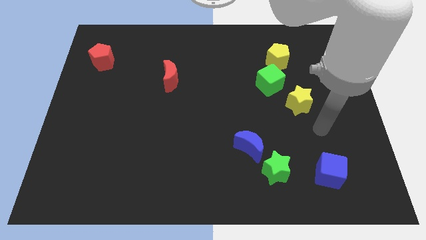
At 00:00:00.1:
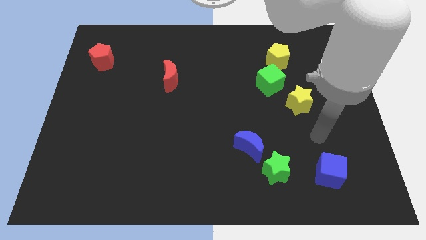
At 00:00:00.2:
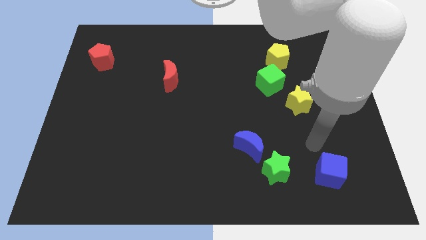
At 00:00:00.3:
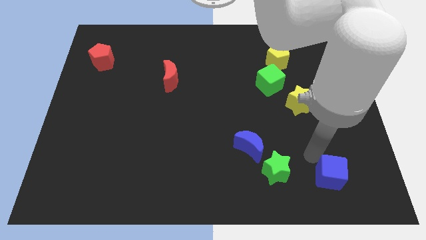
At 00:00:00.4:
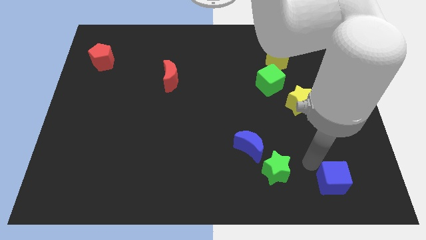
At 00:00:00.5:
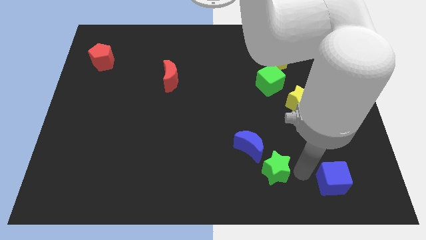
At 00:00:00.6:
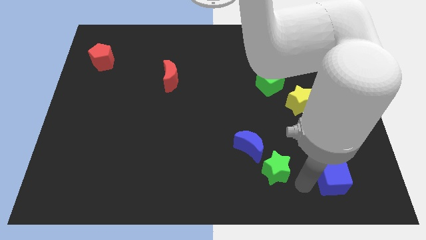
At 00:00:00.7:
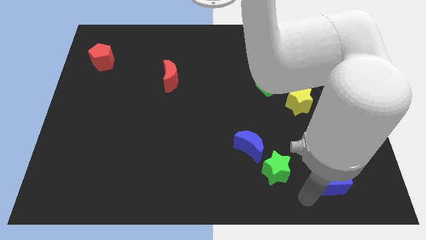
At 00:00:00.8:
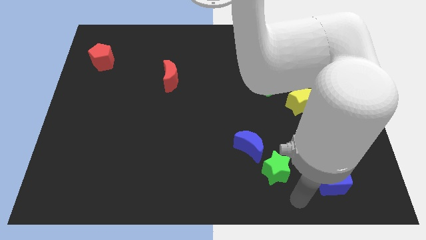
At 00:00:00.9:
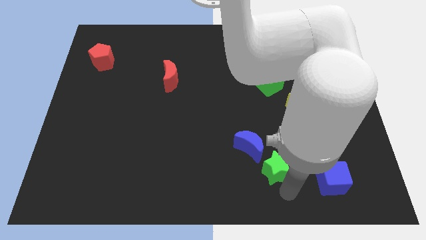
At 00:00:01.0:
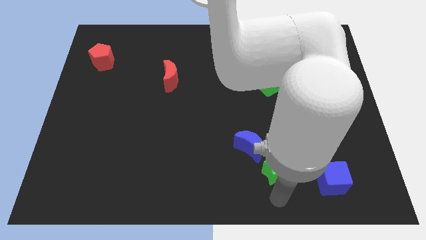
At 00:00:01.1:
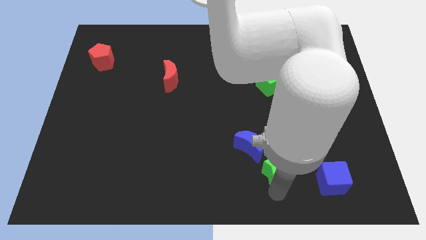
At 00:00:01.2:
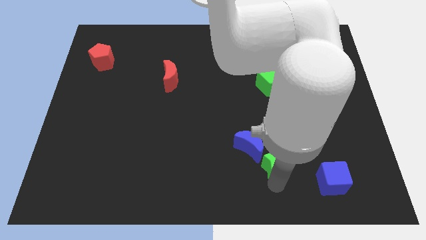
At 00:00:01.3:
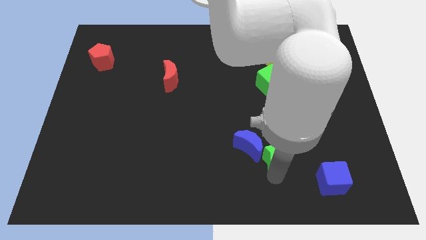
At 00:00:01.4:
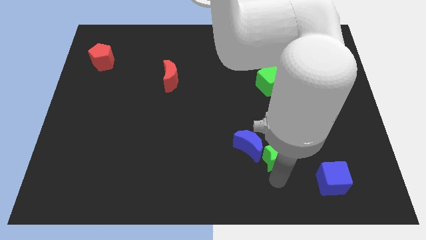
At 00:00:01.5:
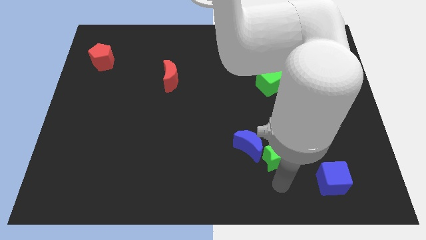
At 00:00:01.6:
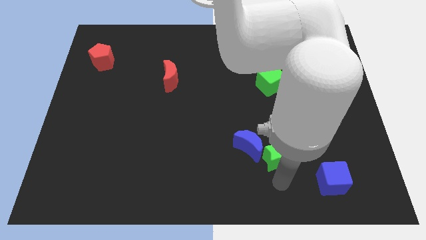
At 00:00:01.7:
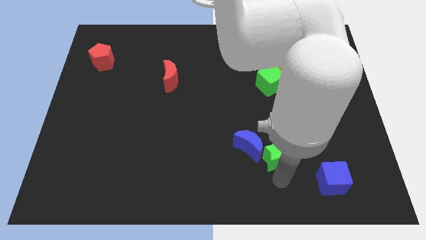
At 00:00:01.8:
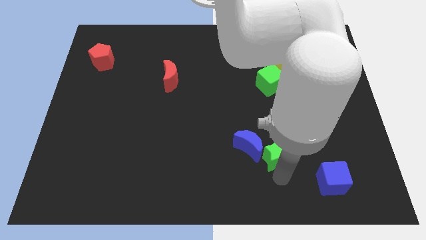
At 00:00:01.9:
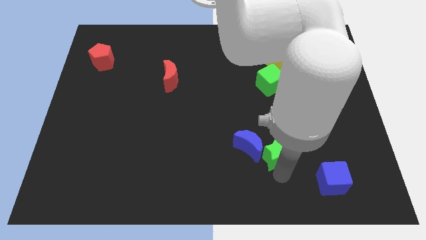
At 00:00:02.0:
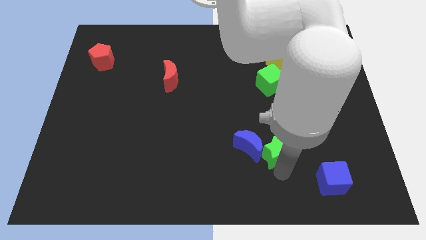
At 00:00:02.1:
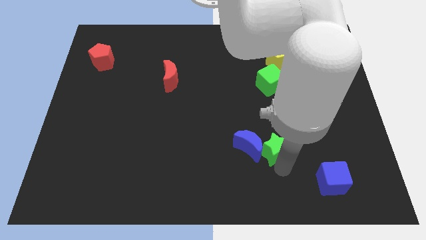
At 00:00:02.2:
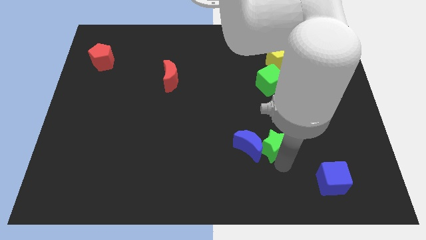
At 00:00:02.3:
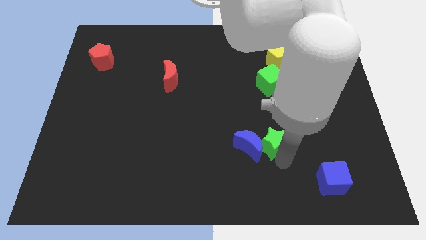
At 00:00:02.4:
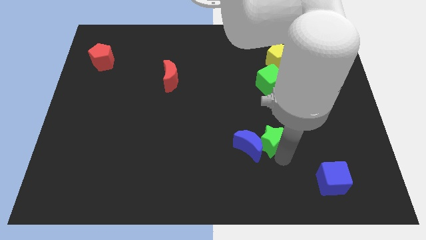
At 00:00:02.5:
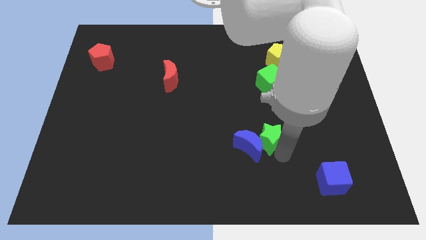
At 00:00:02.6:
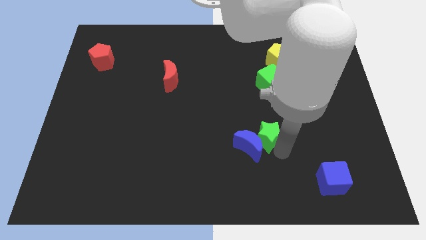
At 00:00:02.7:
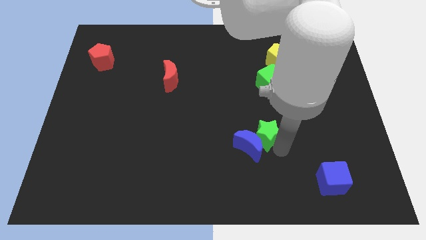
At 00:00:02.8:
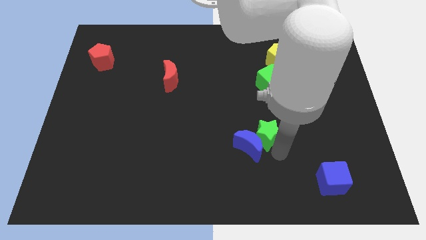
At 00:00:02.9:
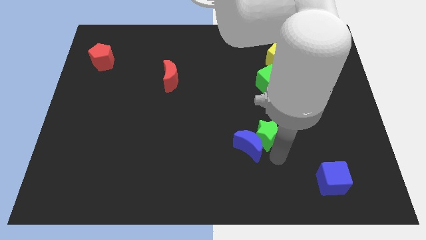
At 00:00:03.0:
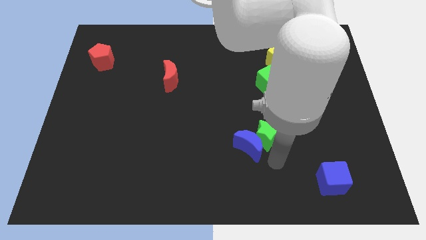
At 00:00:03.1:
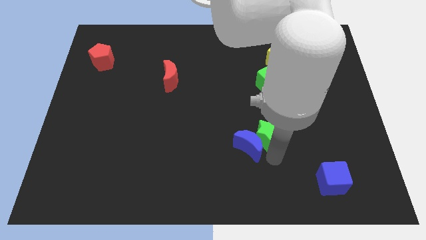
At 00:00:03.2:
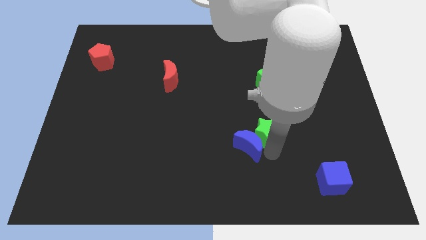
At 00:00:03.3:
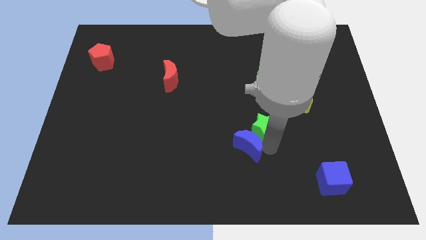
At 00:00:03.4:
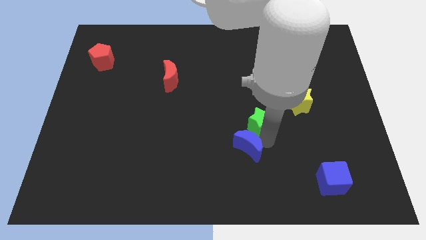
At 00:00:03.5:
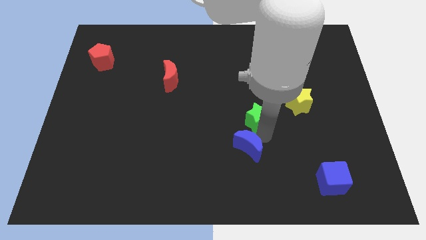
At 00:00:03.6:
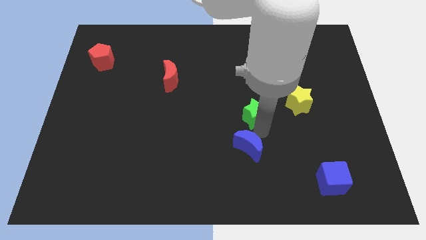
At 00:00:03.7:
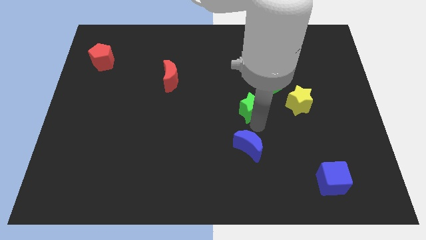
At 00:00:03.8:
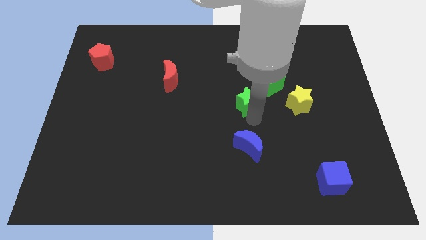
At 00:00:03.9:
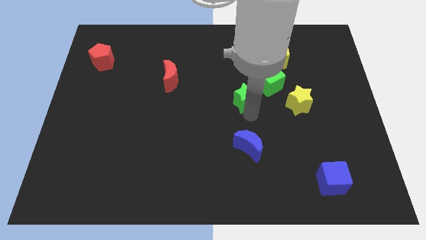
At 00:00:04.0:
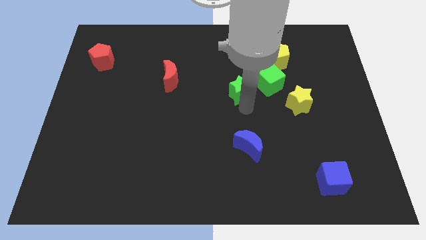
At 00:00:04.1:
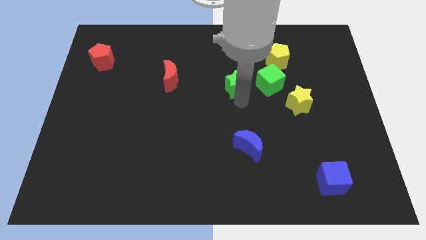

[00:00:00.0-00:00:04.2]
slide the green star upwards

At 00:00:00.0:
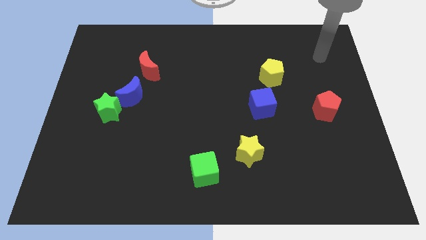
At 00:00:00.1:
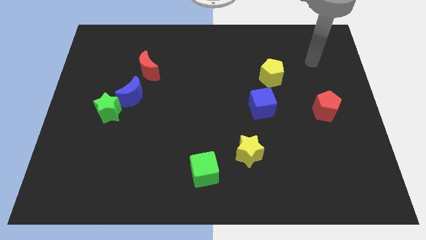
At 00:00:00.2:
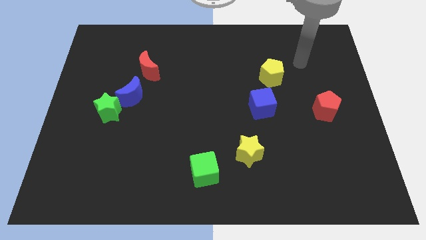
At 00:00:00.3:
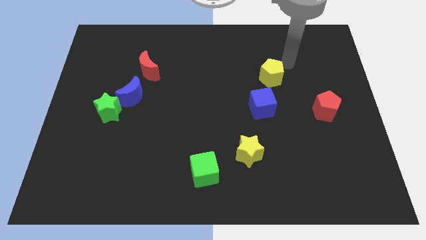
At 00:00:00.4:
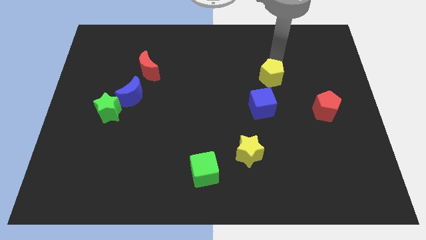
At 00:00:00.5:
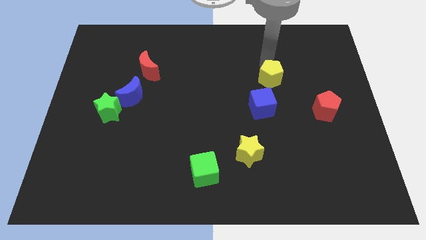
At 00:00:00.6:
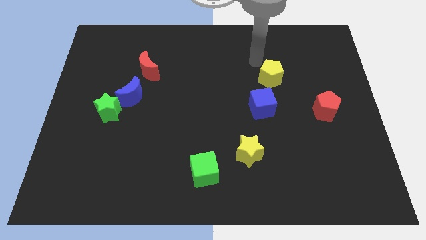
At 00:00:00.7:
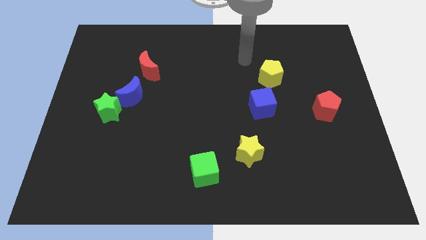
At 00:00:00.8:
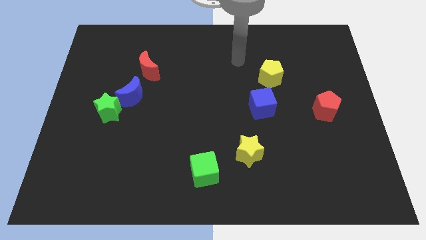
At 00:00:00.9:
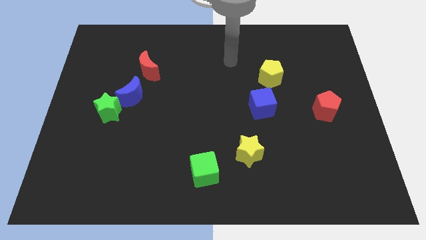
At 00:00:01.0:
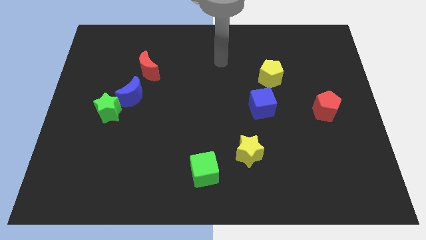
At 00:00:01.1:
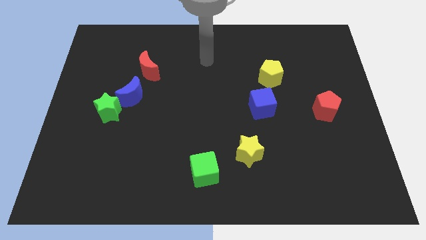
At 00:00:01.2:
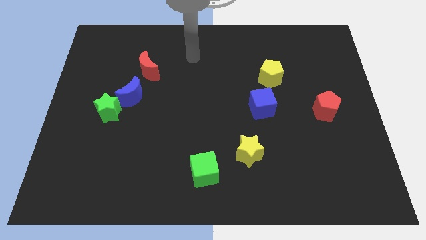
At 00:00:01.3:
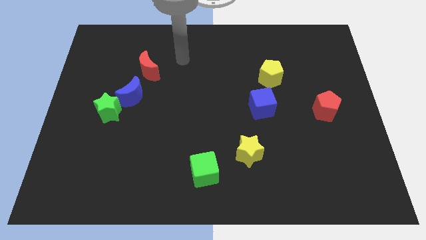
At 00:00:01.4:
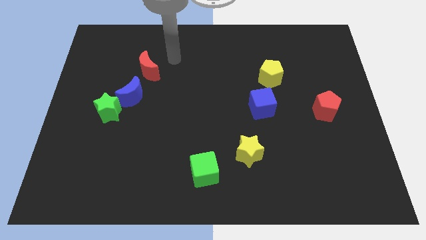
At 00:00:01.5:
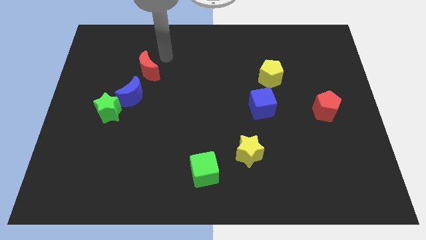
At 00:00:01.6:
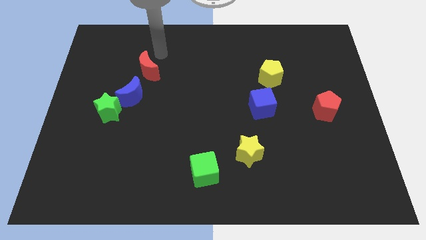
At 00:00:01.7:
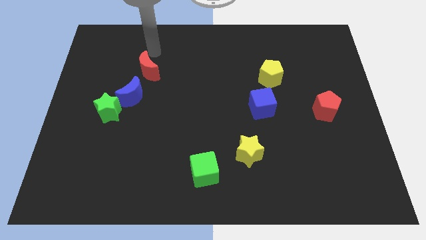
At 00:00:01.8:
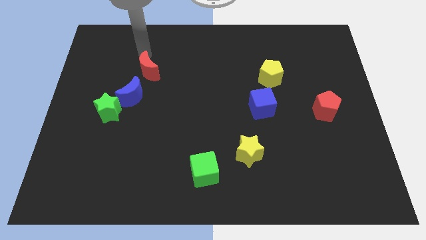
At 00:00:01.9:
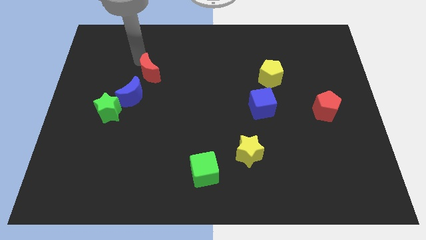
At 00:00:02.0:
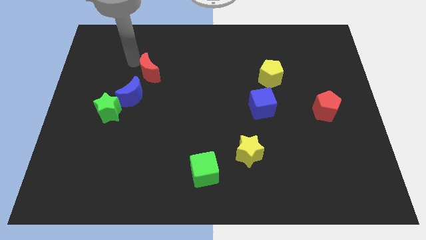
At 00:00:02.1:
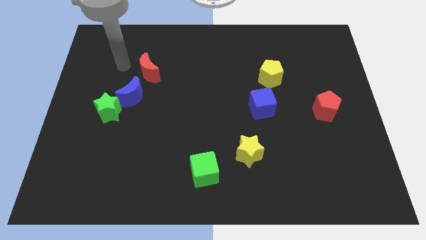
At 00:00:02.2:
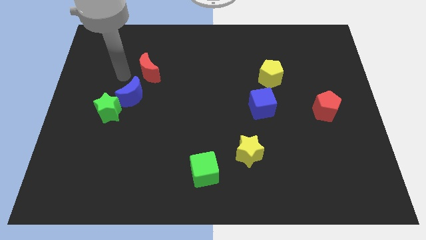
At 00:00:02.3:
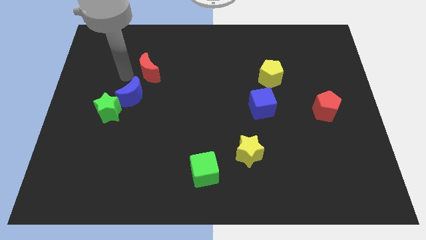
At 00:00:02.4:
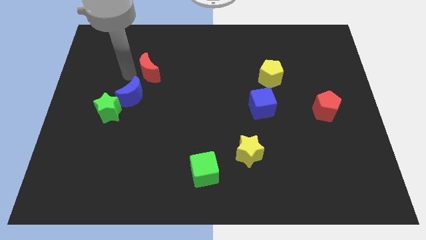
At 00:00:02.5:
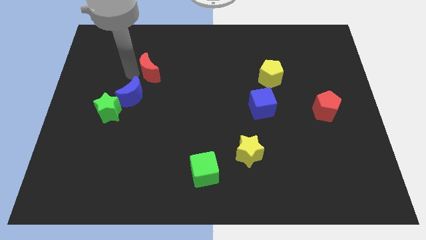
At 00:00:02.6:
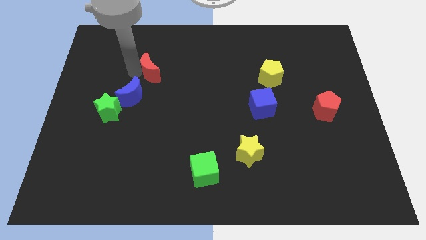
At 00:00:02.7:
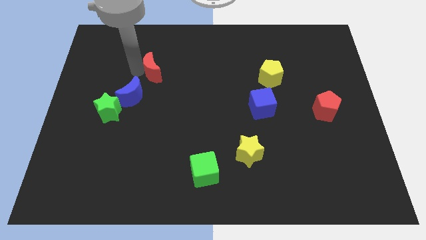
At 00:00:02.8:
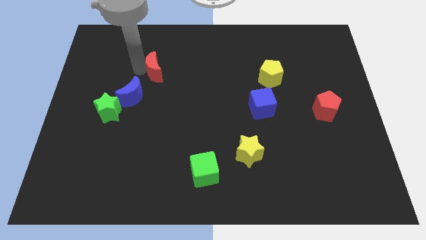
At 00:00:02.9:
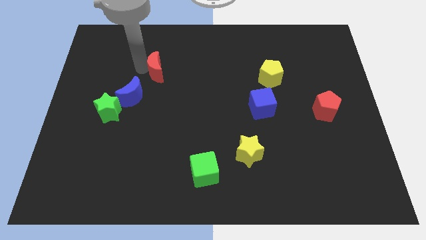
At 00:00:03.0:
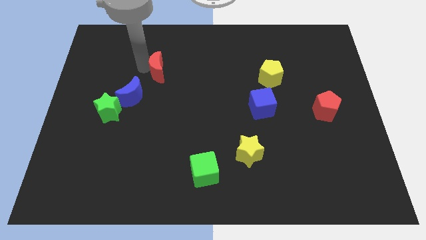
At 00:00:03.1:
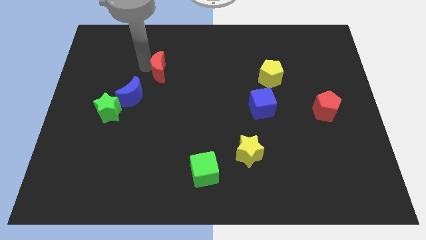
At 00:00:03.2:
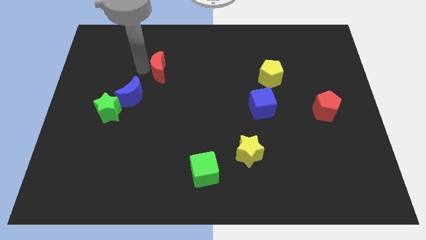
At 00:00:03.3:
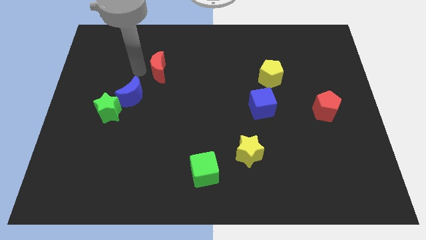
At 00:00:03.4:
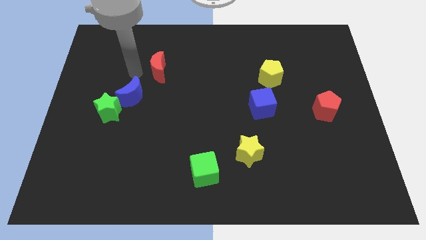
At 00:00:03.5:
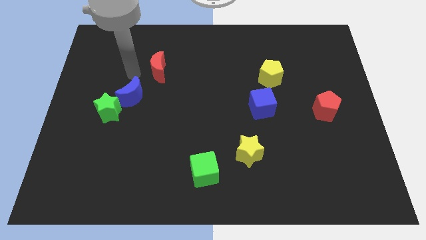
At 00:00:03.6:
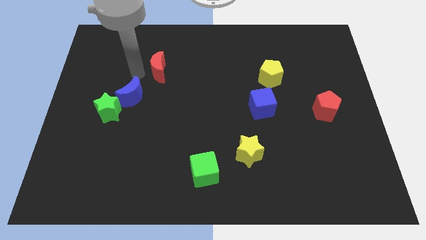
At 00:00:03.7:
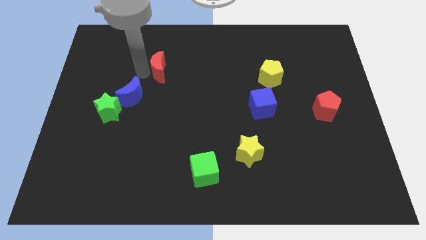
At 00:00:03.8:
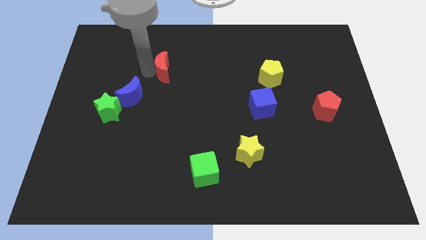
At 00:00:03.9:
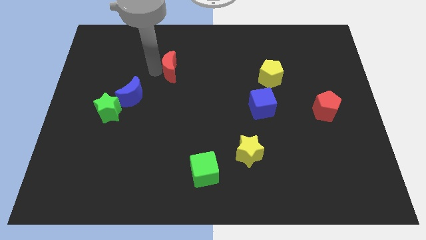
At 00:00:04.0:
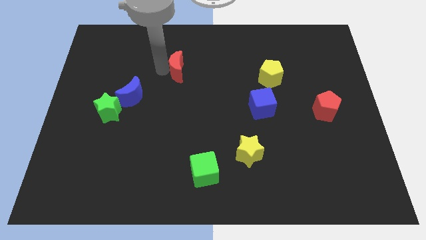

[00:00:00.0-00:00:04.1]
push the red moon somewhat to the right
